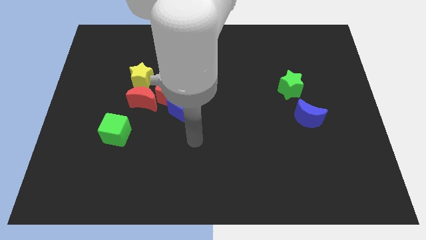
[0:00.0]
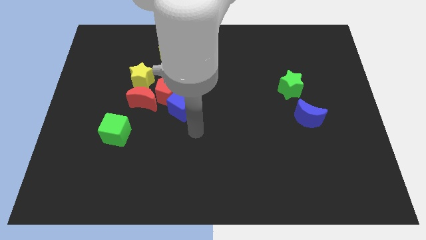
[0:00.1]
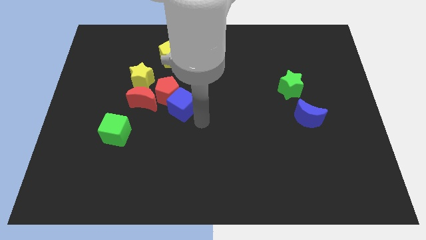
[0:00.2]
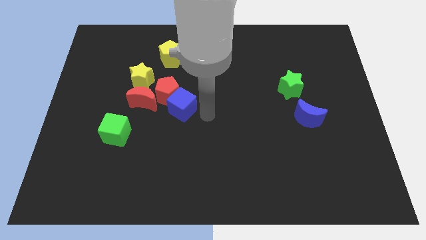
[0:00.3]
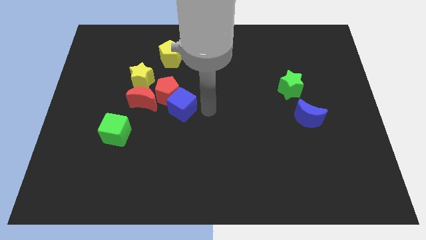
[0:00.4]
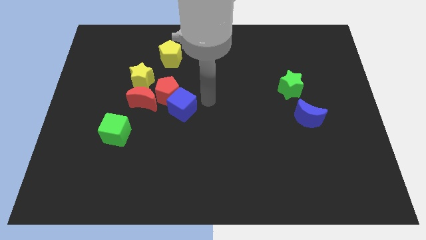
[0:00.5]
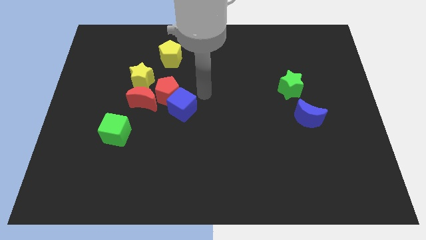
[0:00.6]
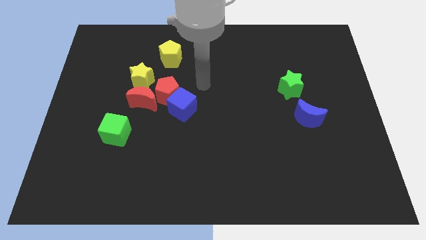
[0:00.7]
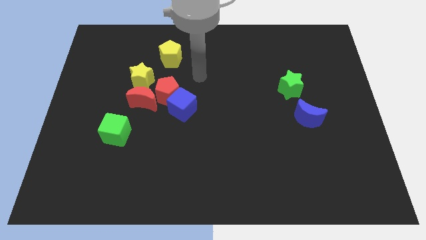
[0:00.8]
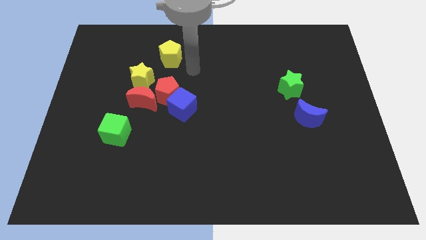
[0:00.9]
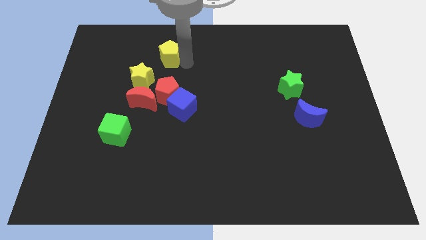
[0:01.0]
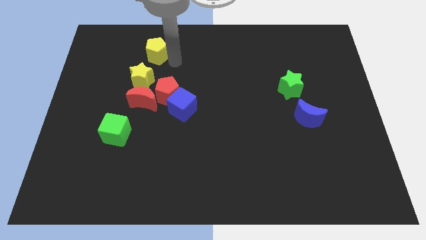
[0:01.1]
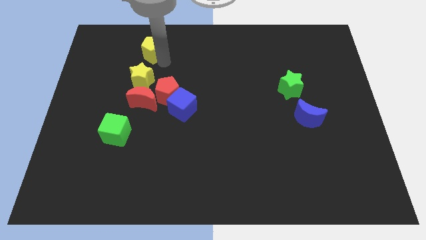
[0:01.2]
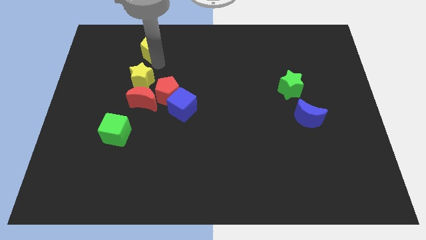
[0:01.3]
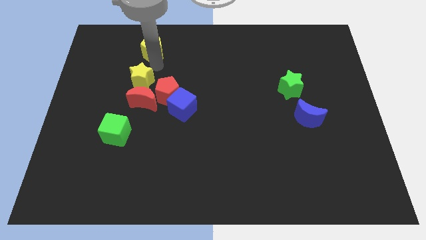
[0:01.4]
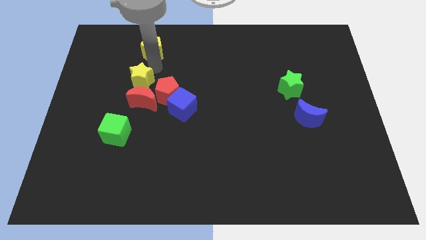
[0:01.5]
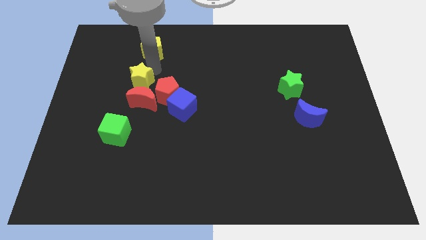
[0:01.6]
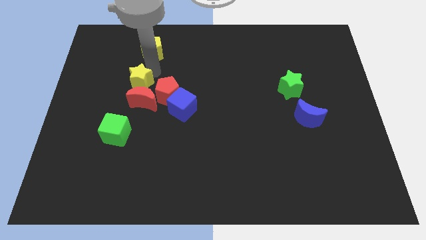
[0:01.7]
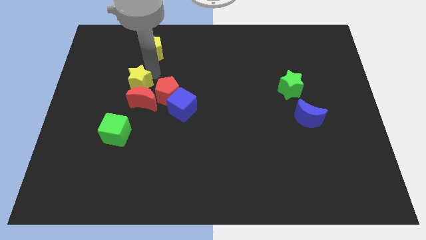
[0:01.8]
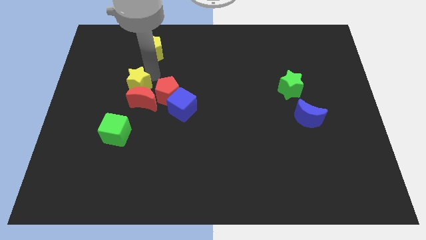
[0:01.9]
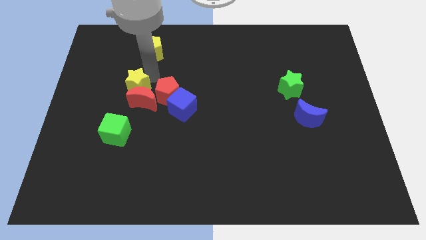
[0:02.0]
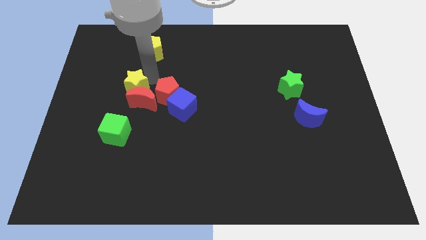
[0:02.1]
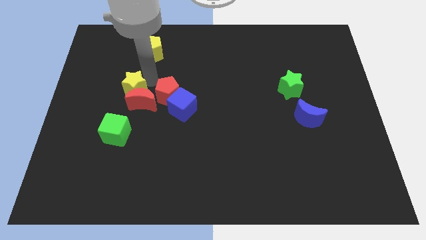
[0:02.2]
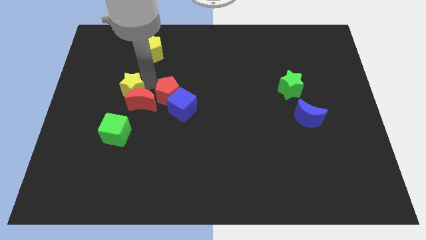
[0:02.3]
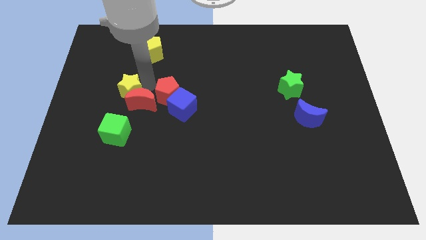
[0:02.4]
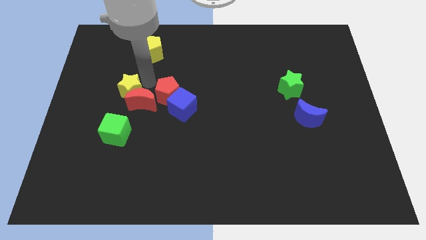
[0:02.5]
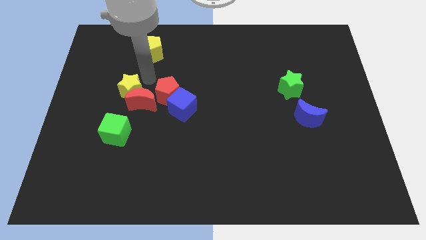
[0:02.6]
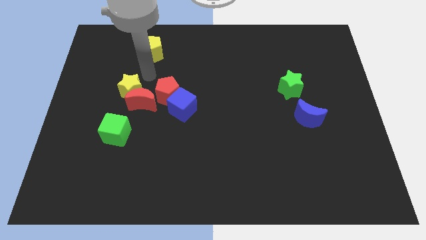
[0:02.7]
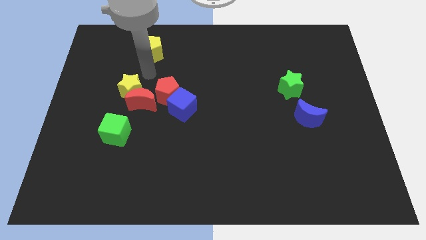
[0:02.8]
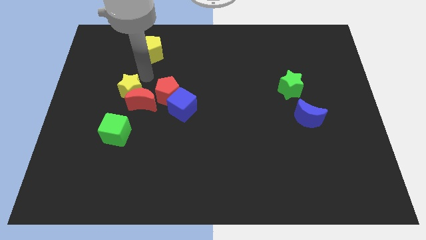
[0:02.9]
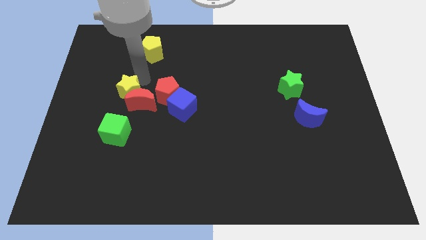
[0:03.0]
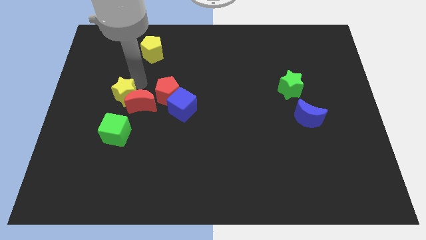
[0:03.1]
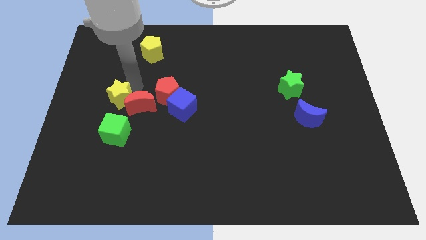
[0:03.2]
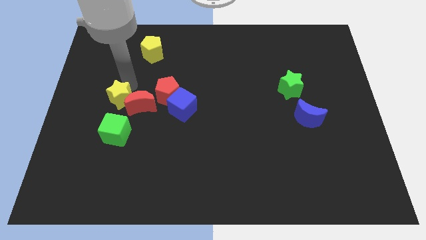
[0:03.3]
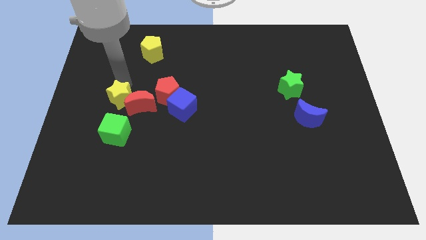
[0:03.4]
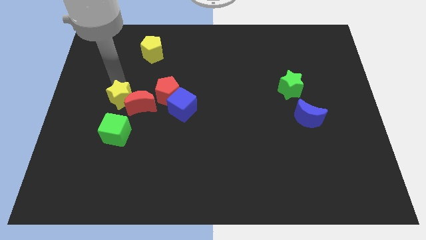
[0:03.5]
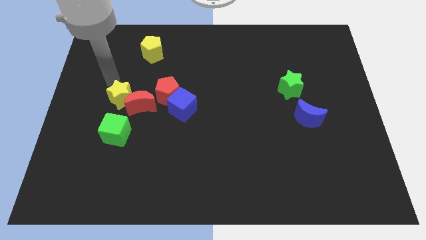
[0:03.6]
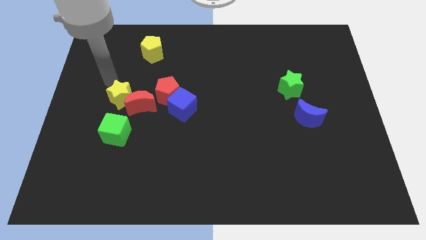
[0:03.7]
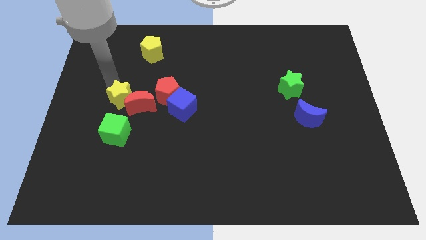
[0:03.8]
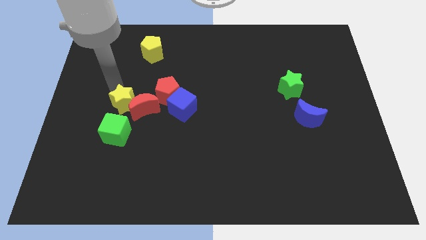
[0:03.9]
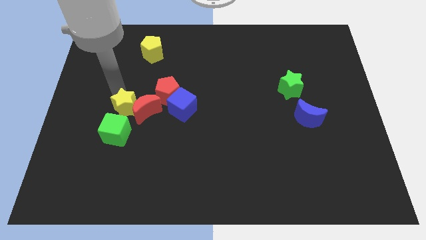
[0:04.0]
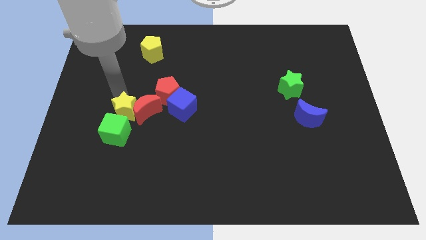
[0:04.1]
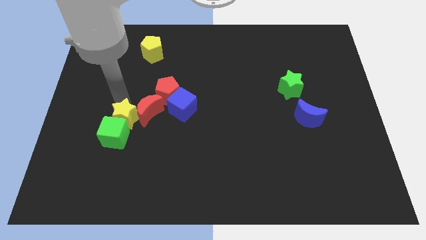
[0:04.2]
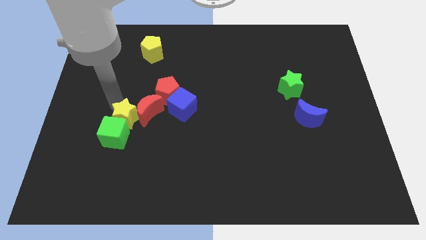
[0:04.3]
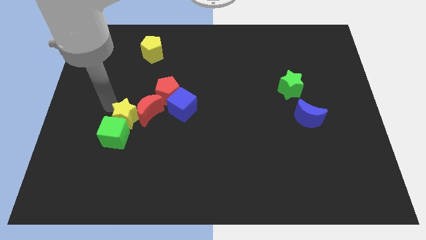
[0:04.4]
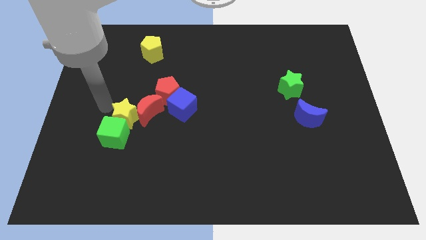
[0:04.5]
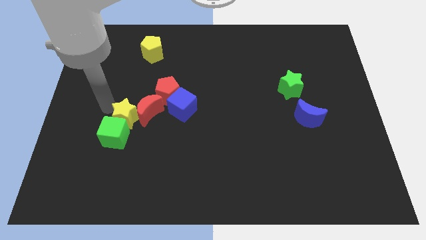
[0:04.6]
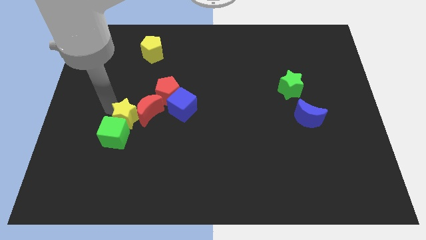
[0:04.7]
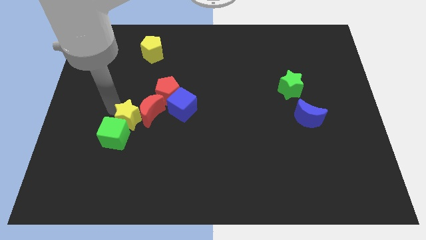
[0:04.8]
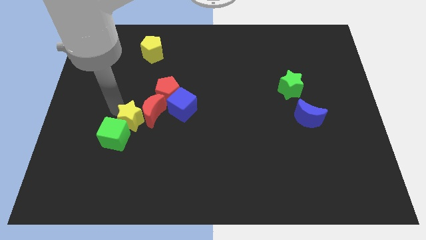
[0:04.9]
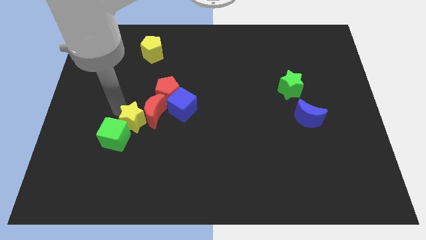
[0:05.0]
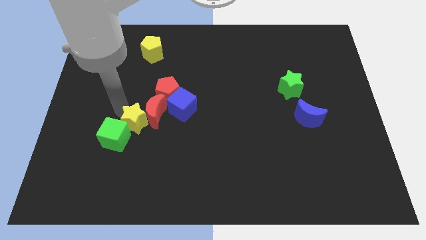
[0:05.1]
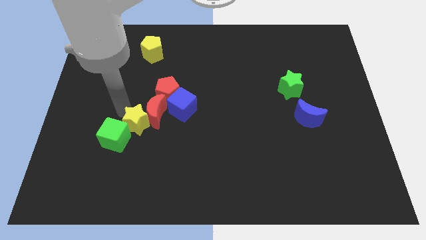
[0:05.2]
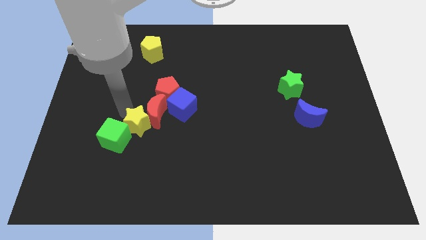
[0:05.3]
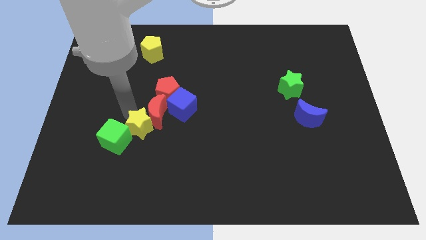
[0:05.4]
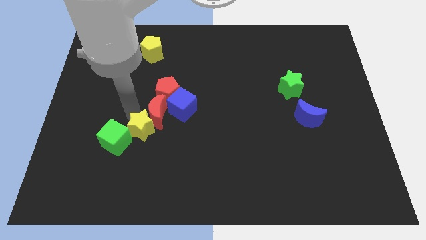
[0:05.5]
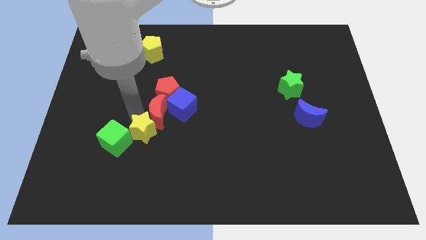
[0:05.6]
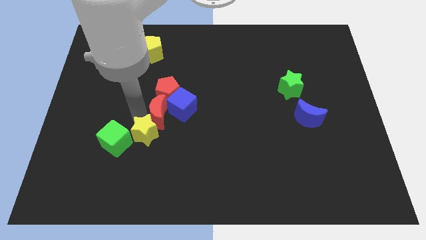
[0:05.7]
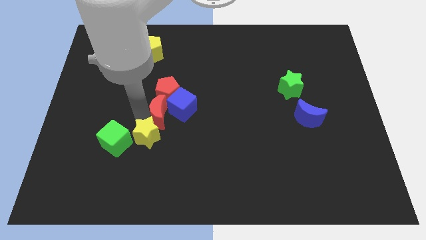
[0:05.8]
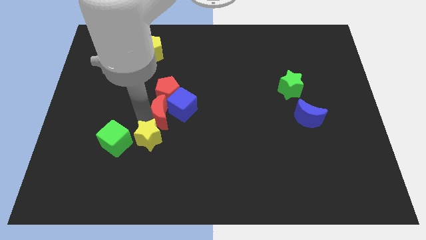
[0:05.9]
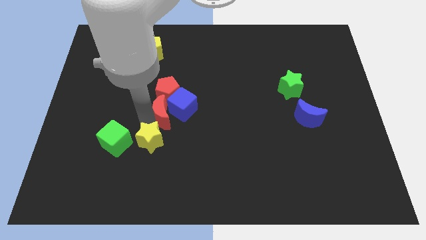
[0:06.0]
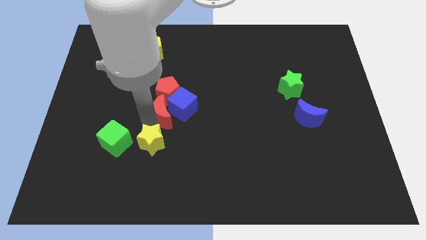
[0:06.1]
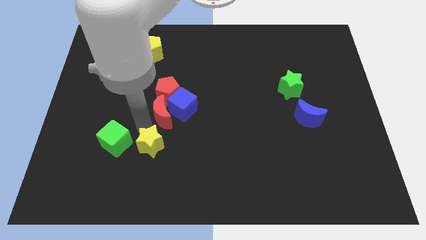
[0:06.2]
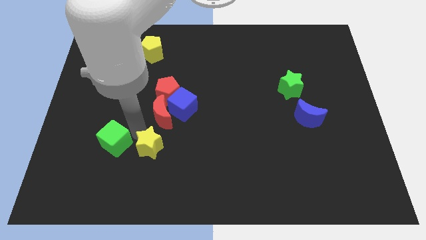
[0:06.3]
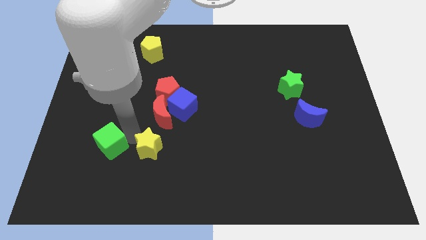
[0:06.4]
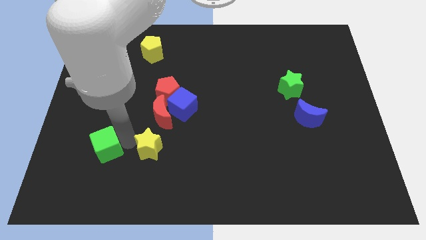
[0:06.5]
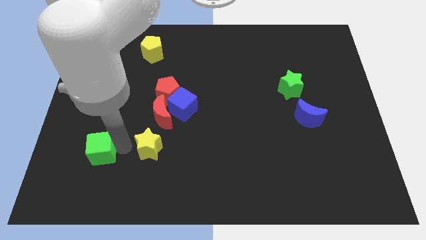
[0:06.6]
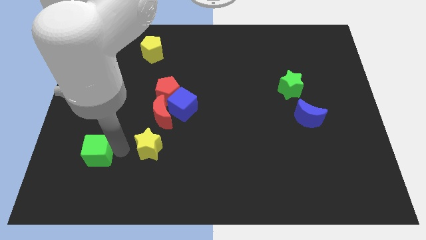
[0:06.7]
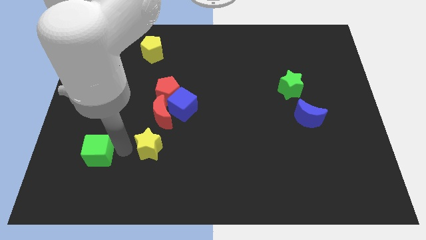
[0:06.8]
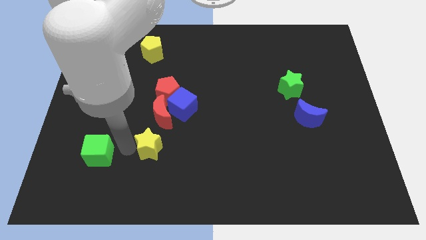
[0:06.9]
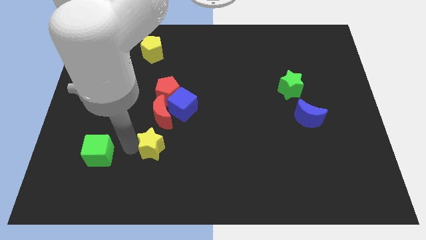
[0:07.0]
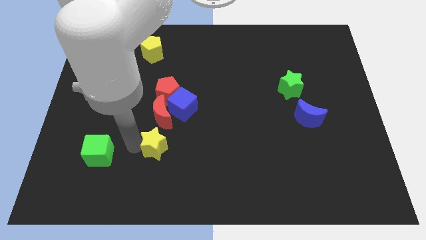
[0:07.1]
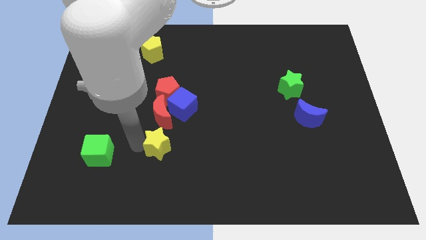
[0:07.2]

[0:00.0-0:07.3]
move the yellow star below the blue cube
